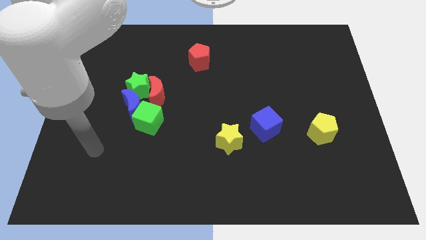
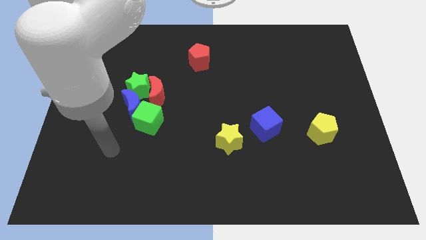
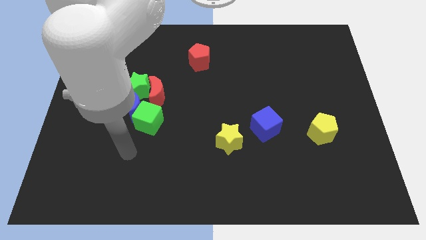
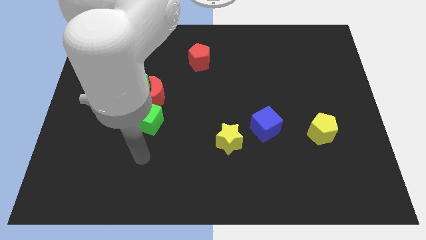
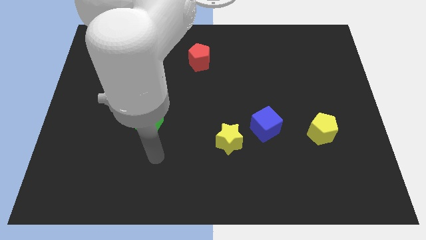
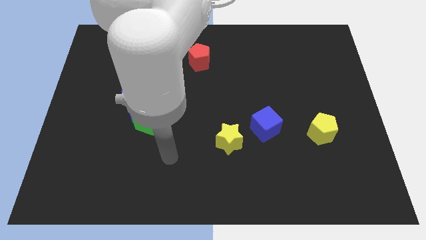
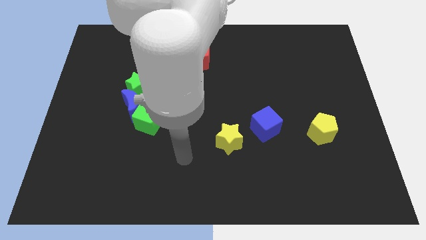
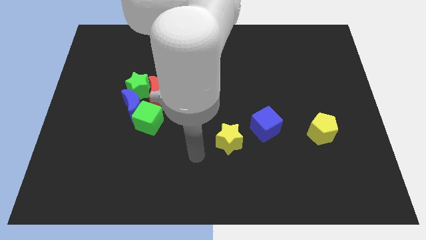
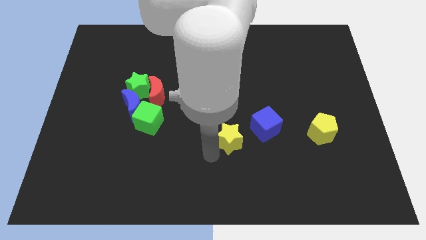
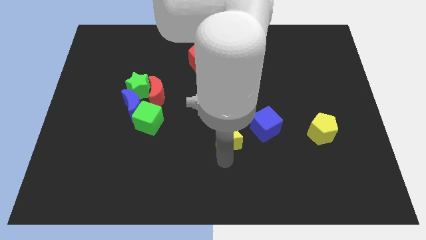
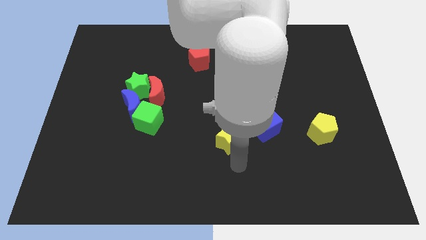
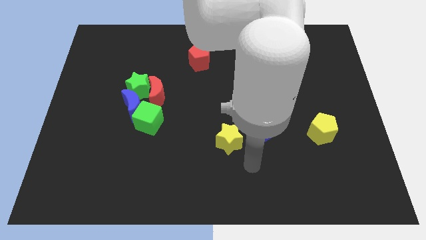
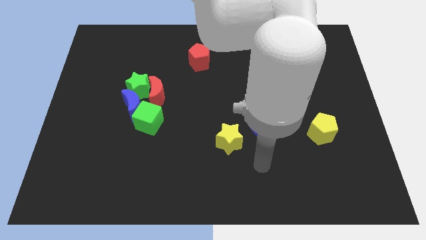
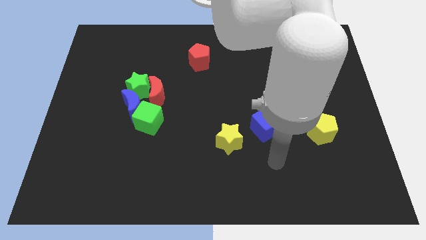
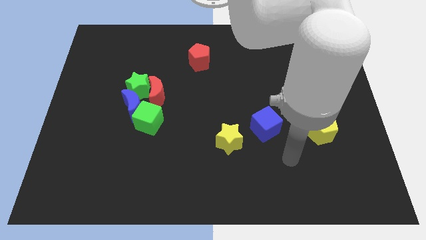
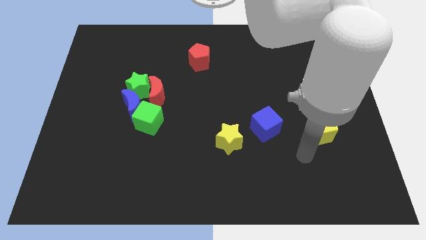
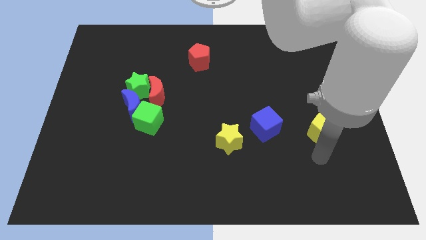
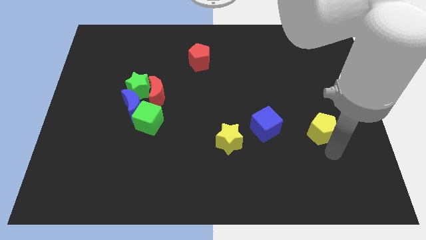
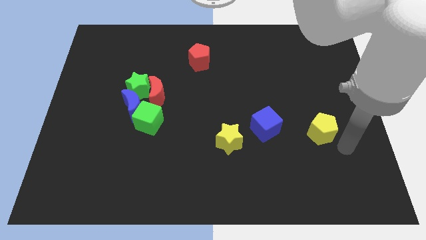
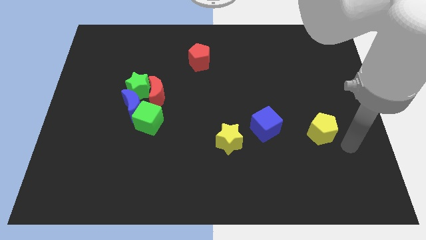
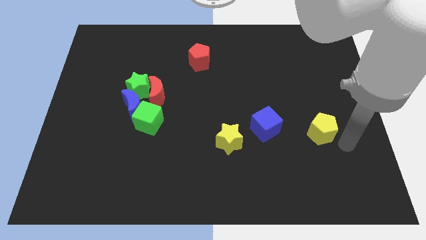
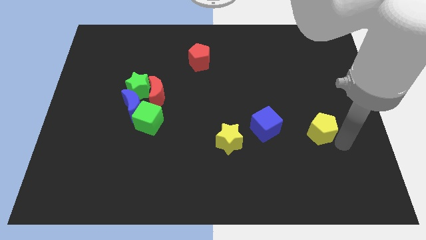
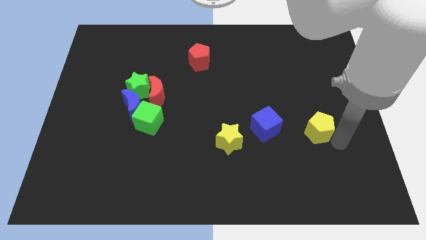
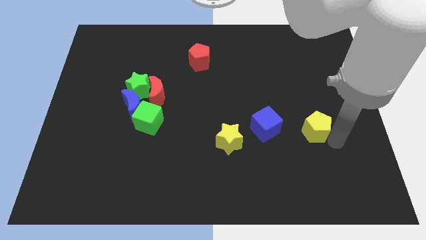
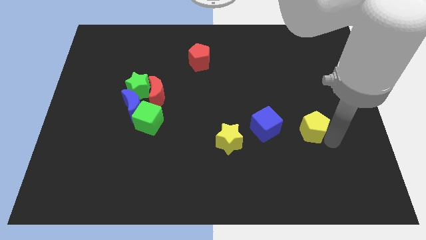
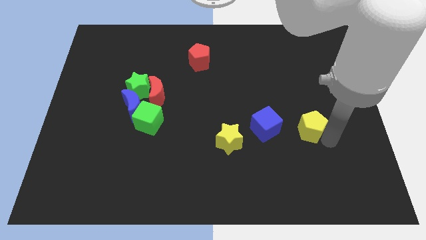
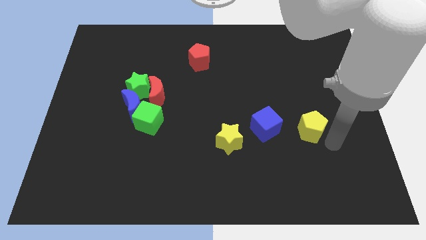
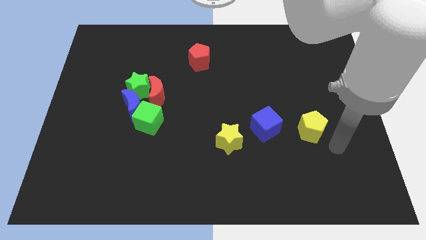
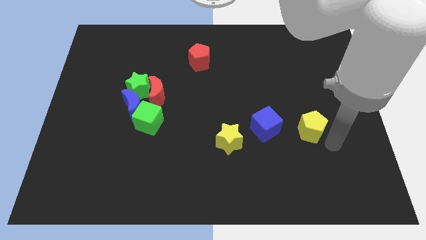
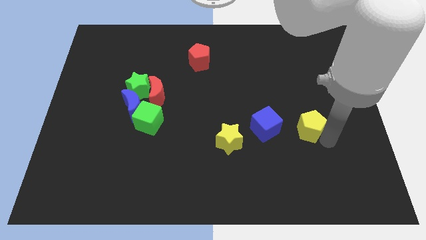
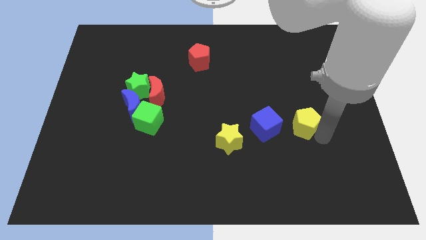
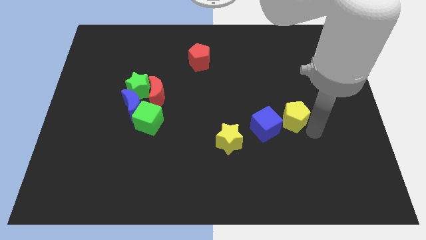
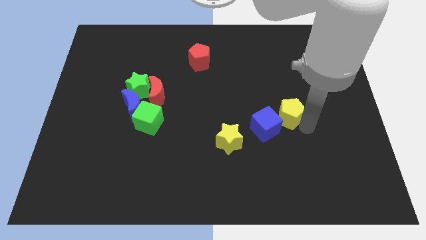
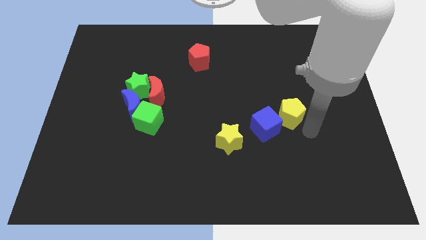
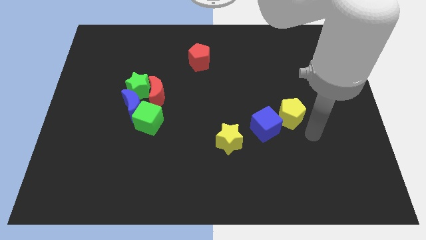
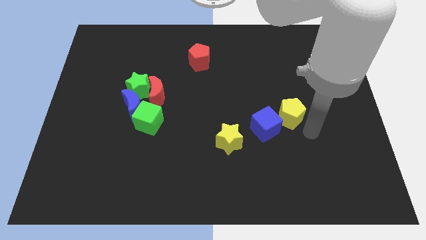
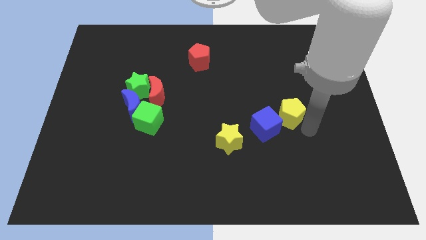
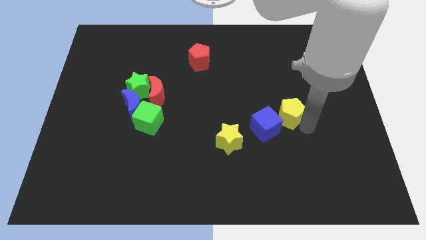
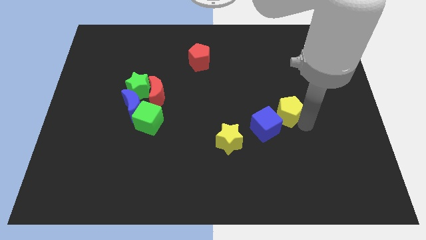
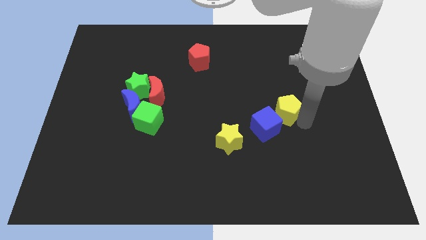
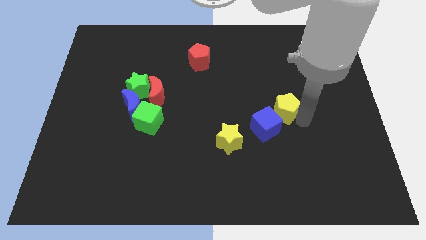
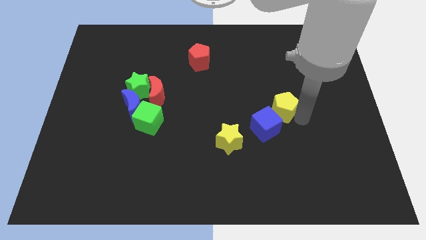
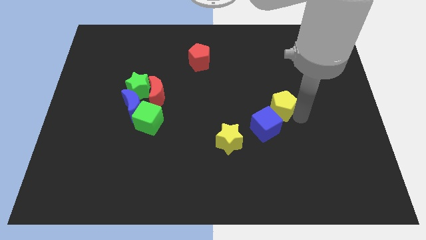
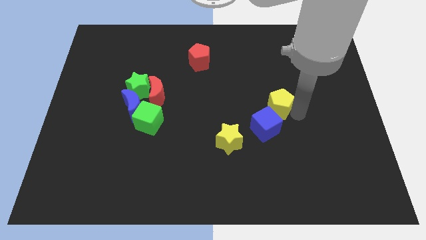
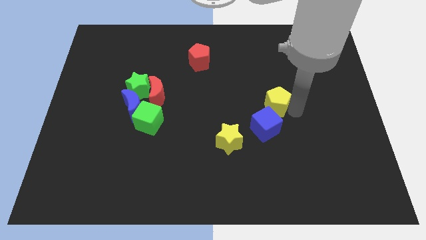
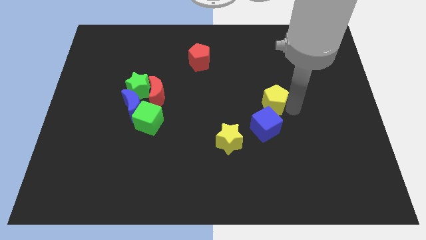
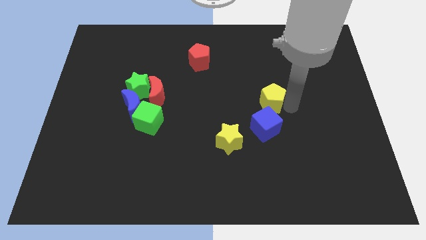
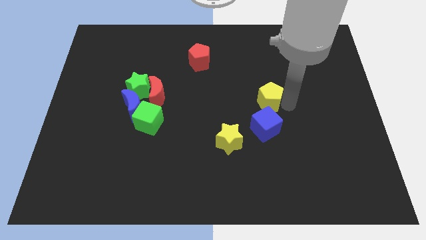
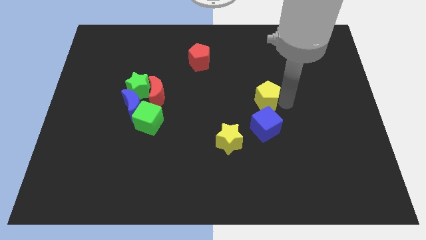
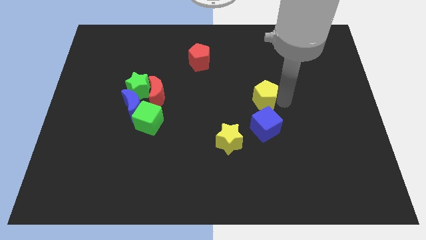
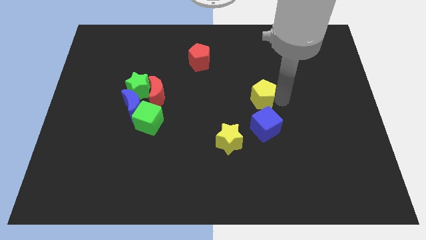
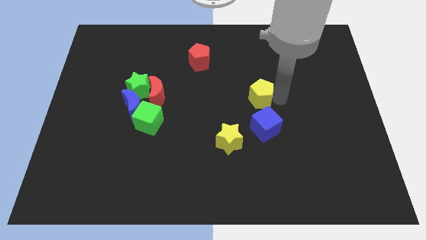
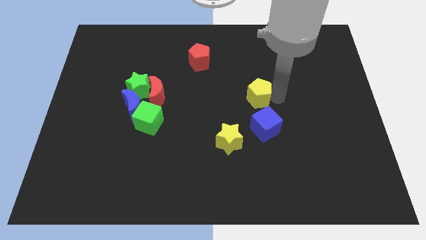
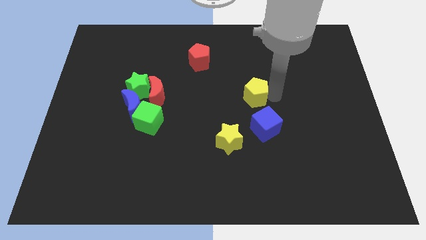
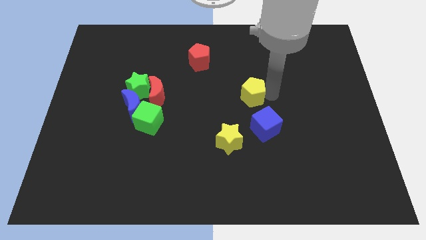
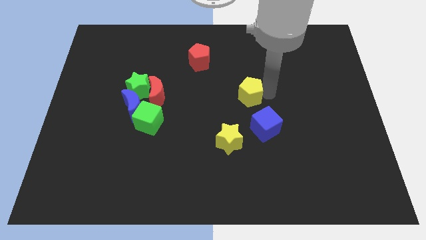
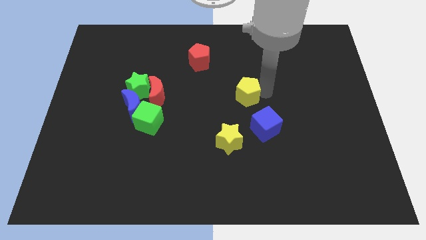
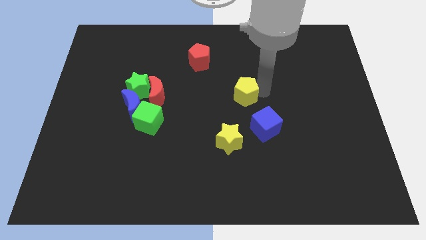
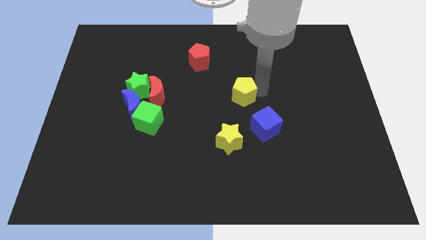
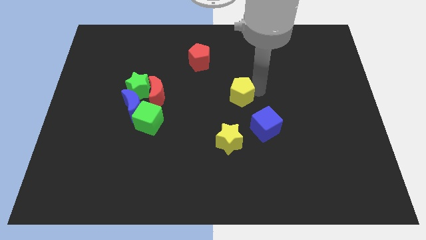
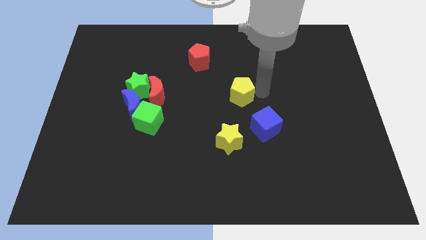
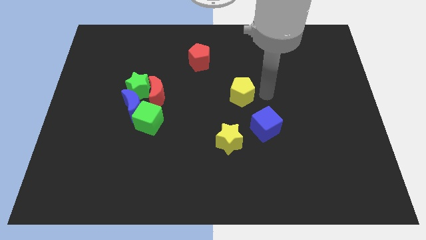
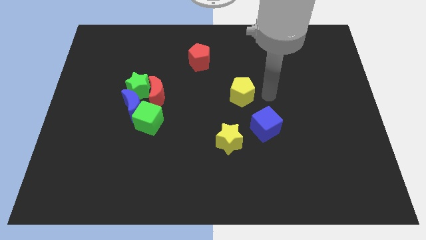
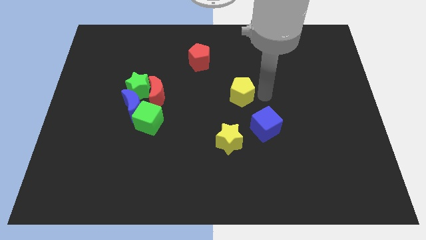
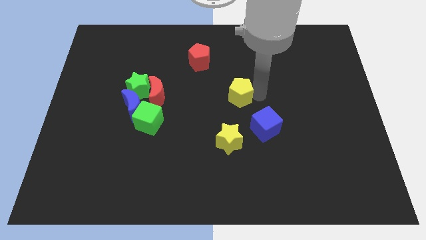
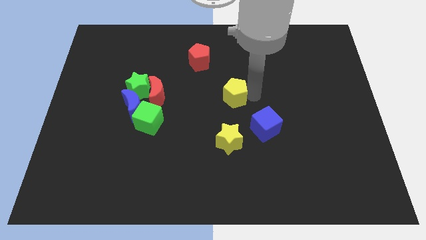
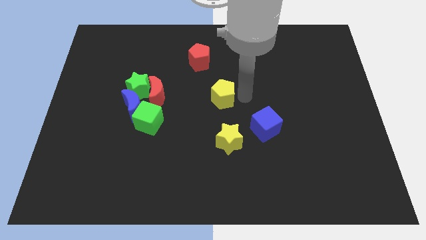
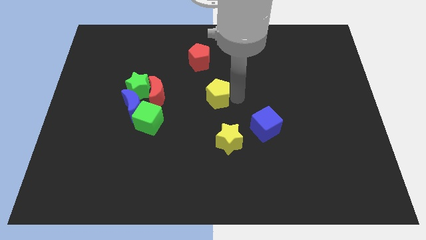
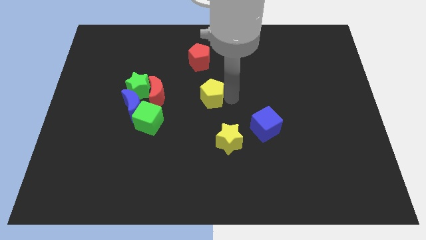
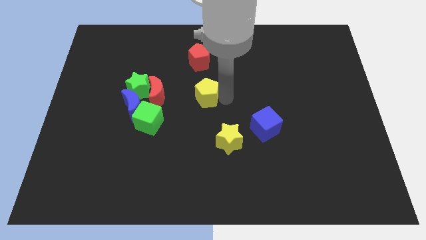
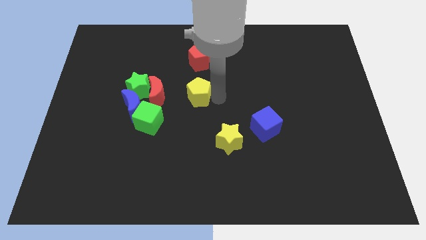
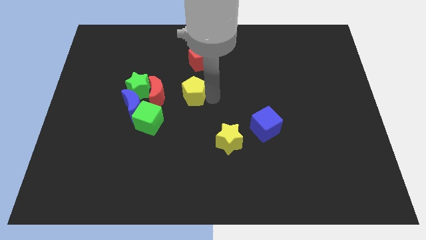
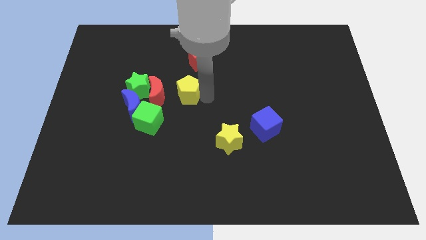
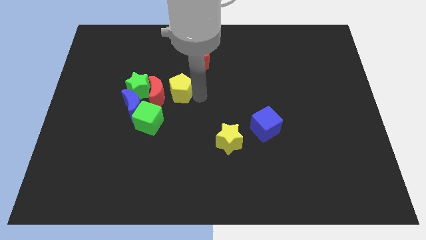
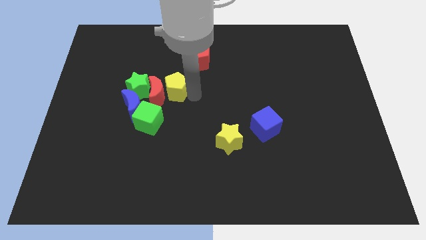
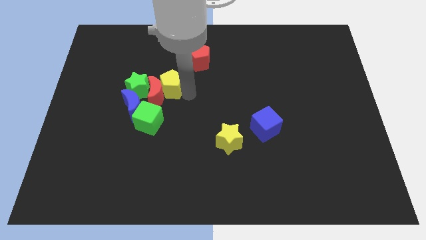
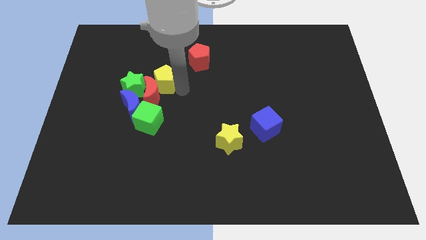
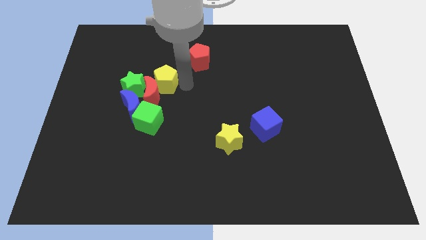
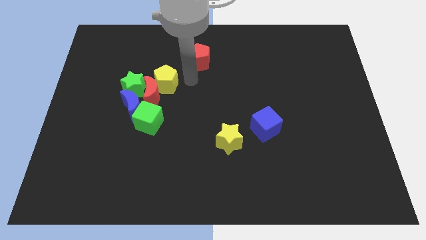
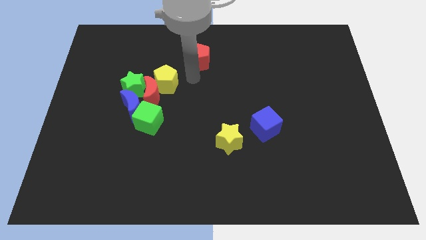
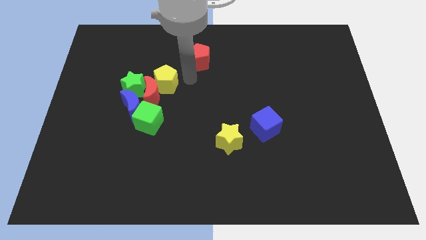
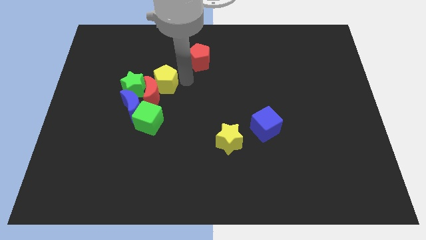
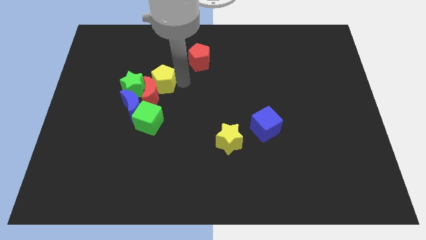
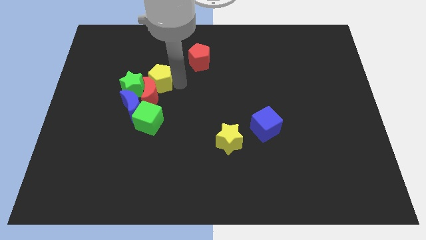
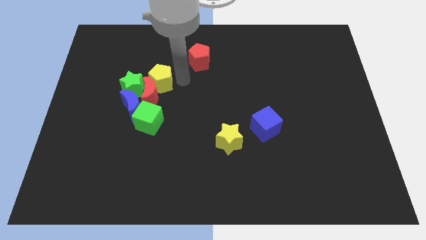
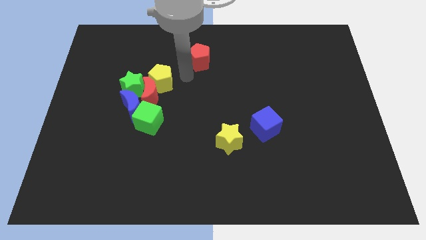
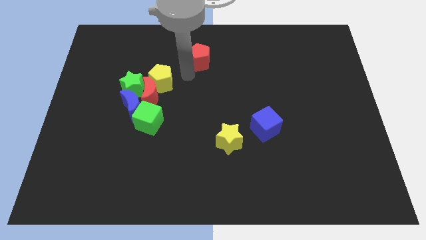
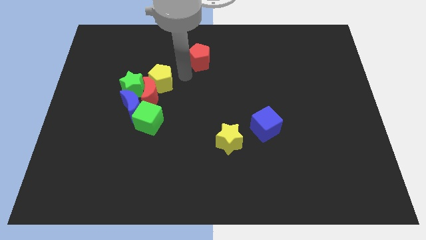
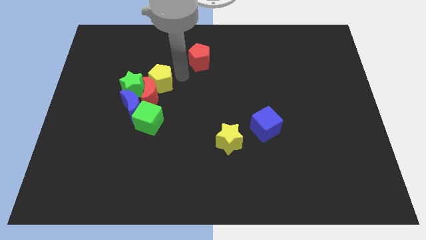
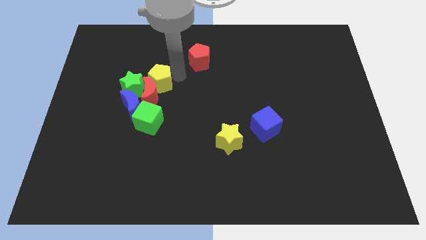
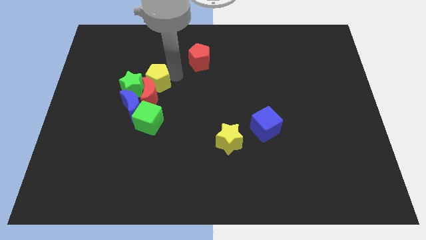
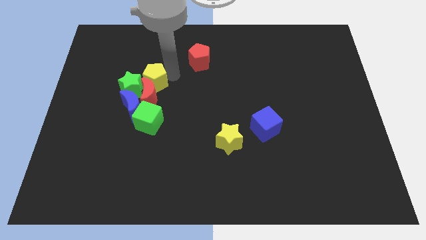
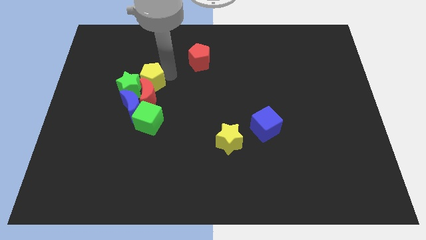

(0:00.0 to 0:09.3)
push the yellow pentagon to the green star
